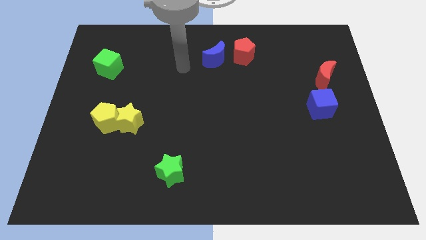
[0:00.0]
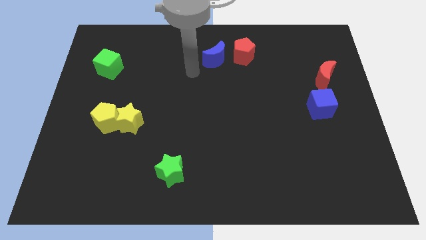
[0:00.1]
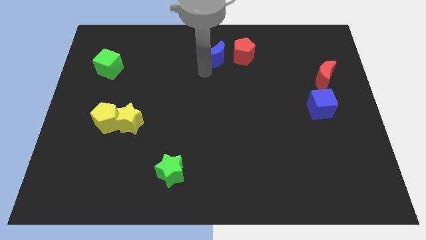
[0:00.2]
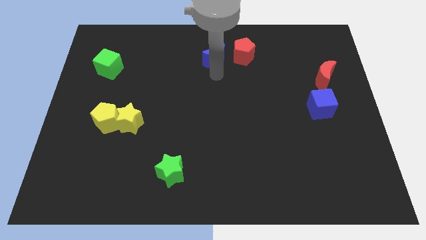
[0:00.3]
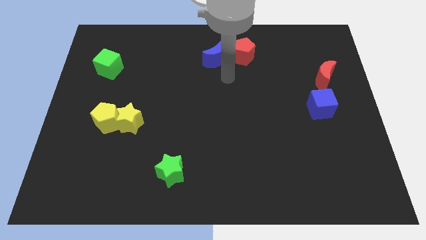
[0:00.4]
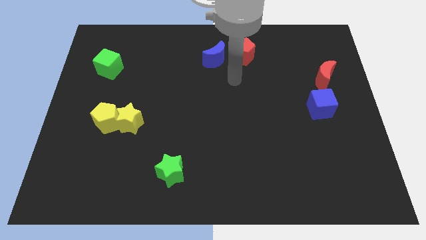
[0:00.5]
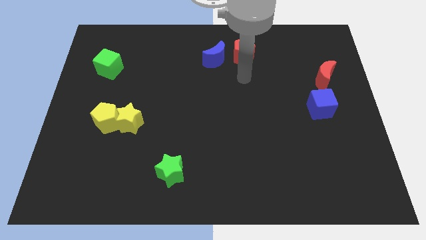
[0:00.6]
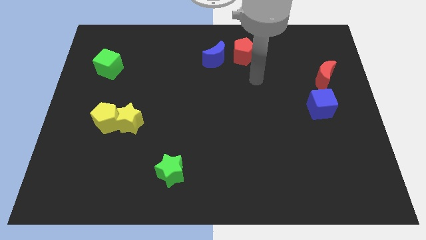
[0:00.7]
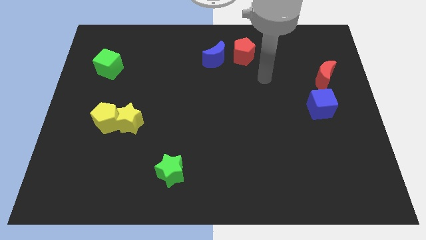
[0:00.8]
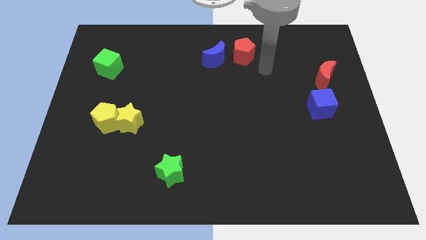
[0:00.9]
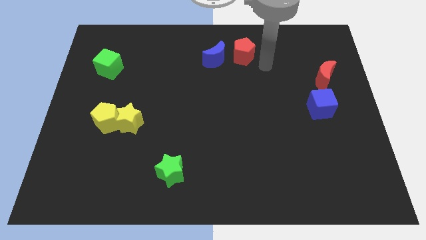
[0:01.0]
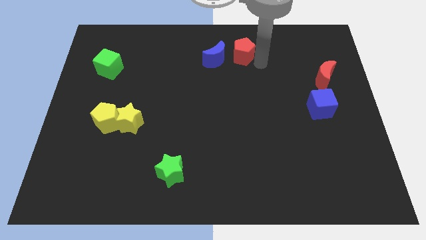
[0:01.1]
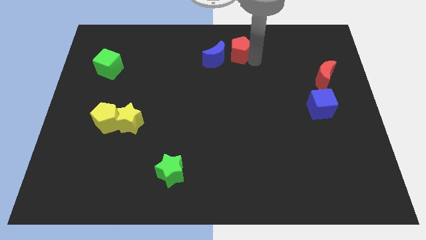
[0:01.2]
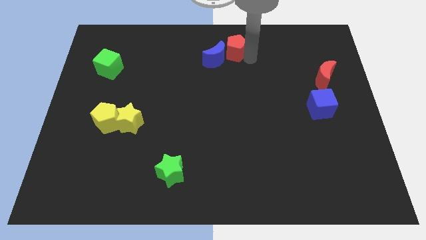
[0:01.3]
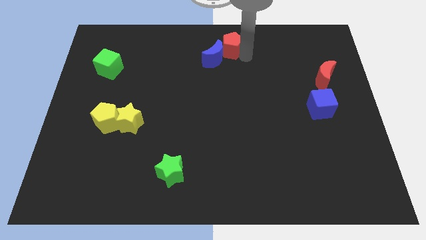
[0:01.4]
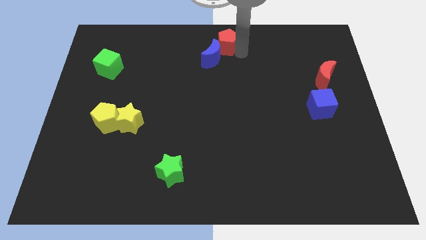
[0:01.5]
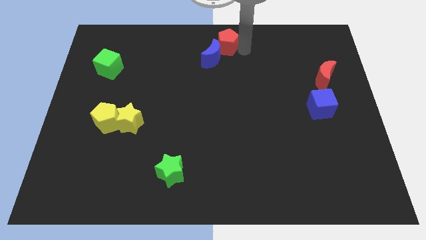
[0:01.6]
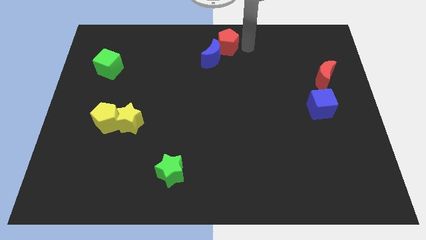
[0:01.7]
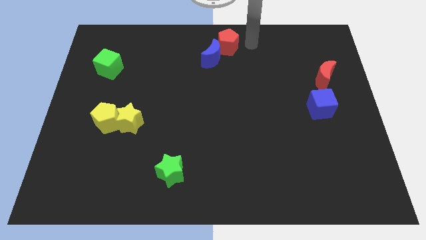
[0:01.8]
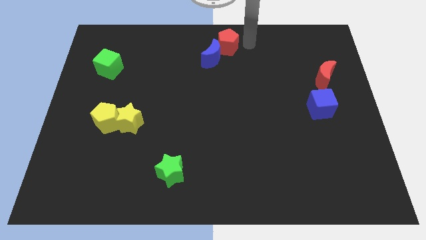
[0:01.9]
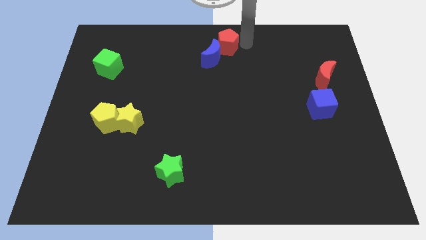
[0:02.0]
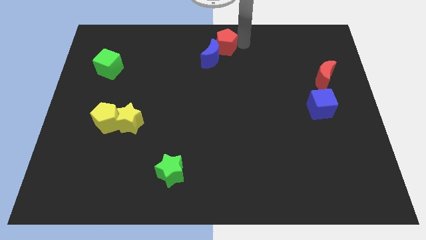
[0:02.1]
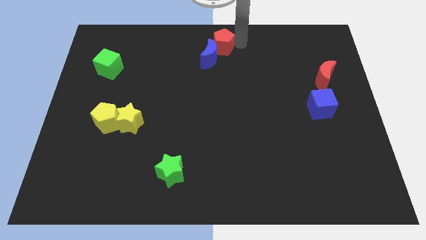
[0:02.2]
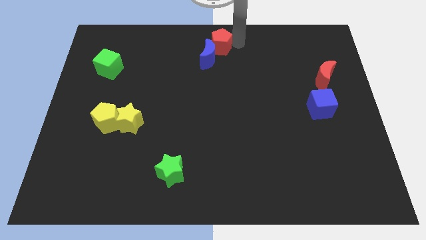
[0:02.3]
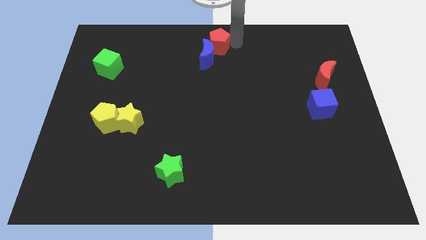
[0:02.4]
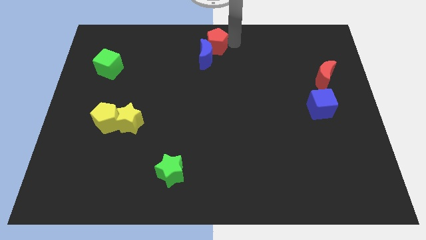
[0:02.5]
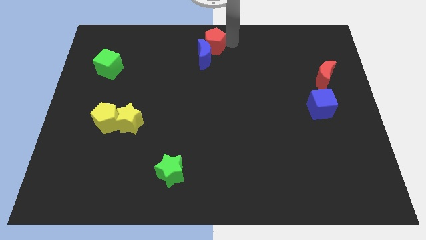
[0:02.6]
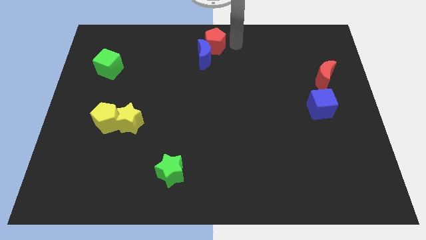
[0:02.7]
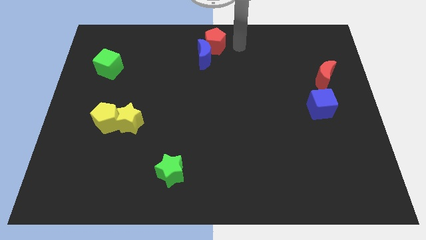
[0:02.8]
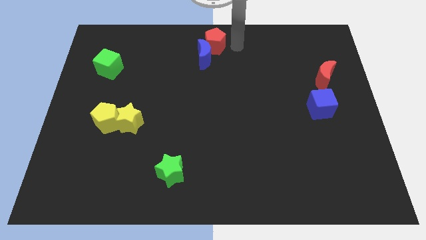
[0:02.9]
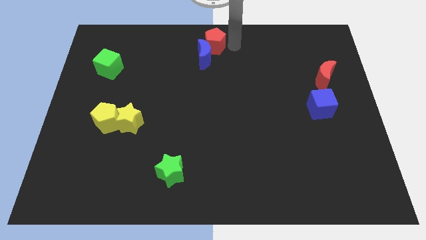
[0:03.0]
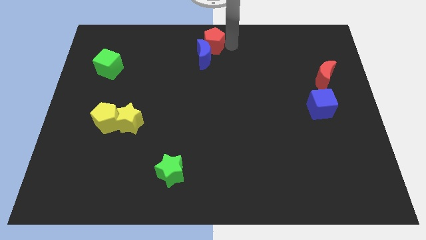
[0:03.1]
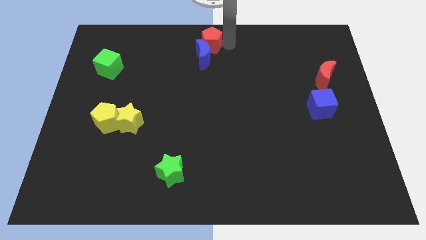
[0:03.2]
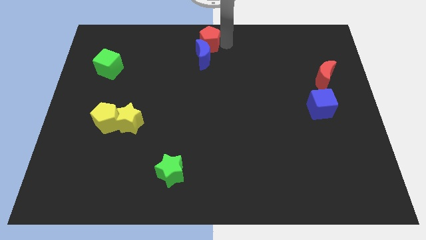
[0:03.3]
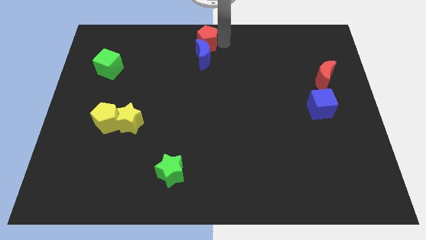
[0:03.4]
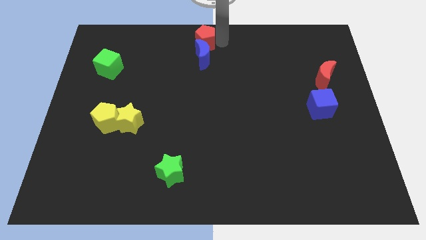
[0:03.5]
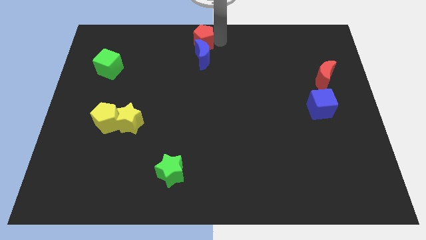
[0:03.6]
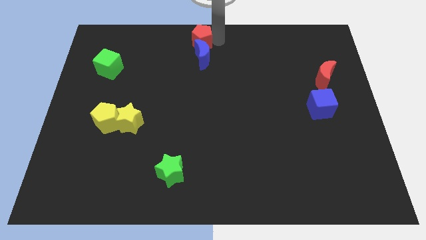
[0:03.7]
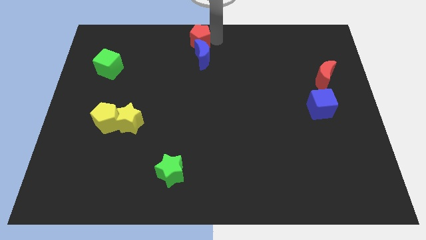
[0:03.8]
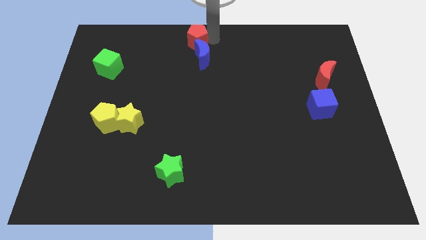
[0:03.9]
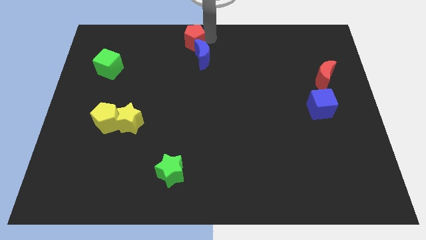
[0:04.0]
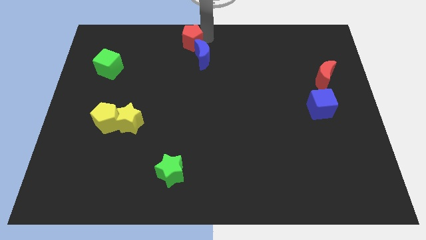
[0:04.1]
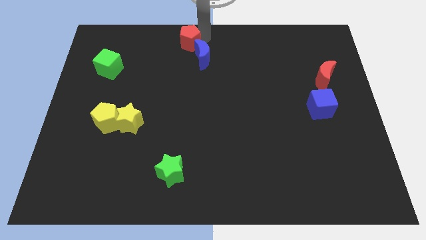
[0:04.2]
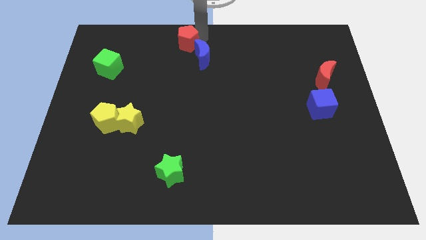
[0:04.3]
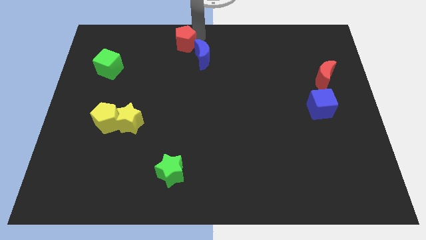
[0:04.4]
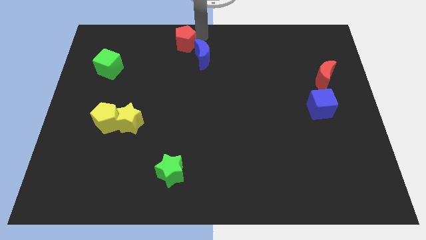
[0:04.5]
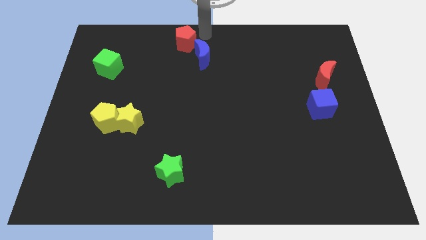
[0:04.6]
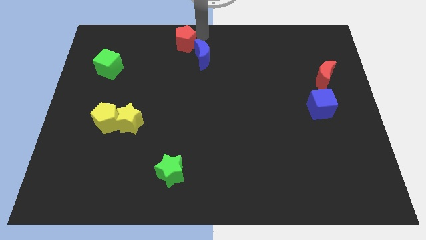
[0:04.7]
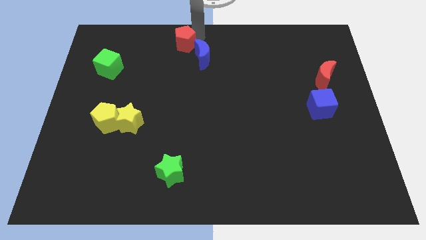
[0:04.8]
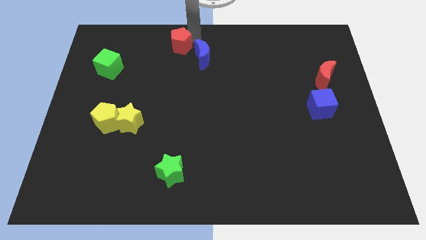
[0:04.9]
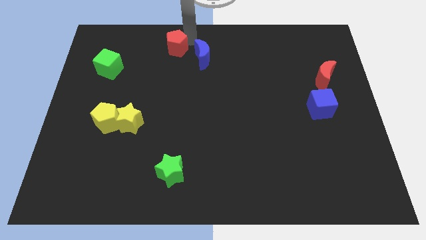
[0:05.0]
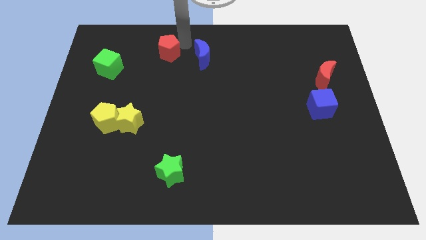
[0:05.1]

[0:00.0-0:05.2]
move the red pentagon left

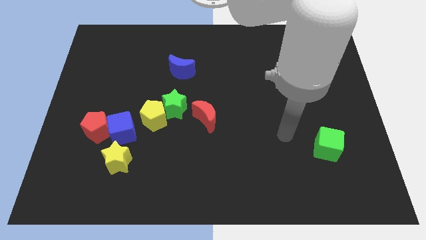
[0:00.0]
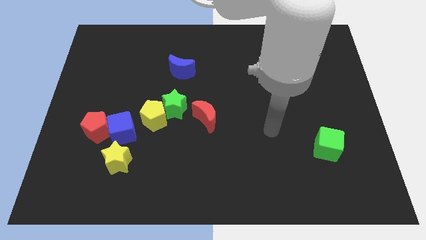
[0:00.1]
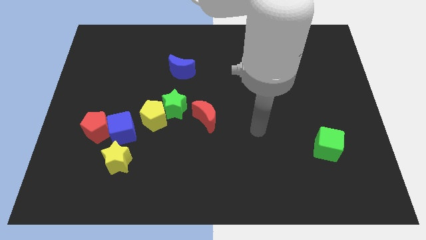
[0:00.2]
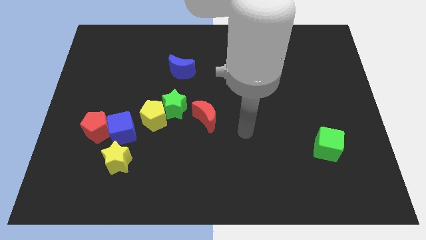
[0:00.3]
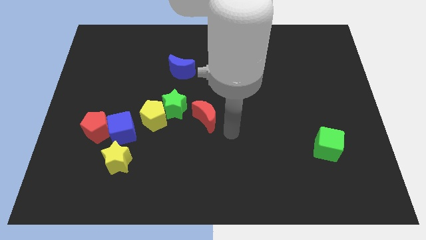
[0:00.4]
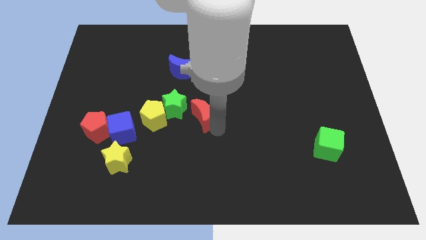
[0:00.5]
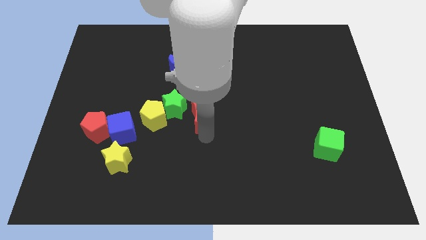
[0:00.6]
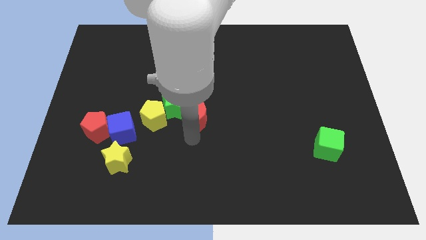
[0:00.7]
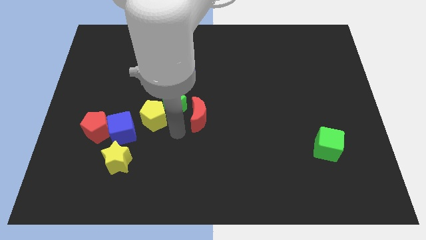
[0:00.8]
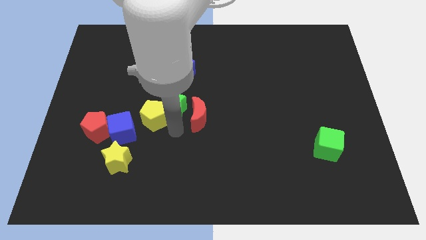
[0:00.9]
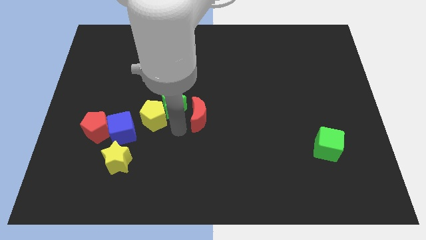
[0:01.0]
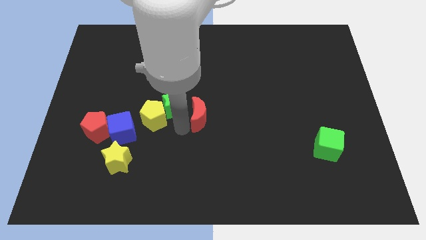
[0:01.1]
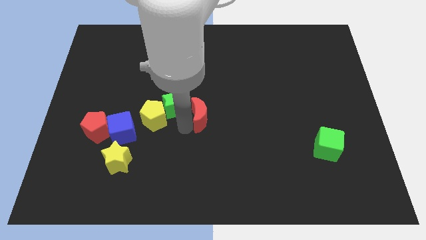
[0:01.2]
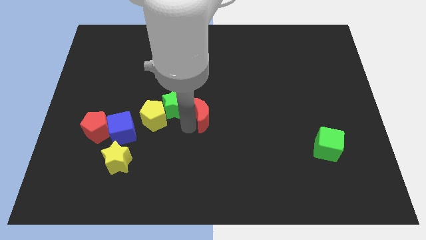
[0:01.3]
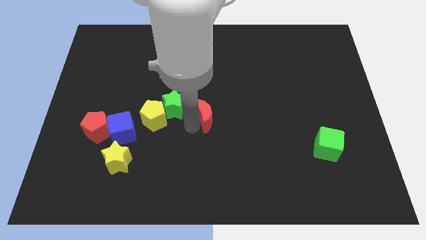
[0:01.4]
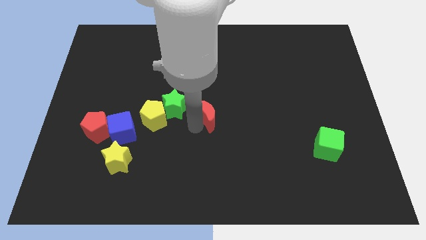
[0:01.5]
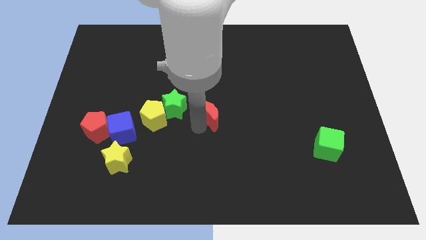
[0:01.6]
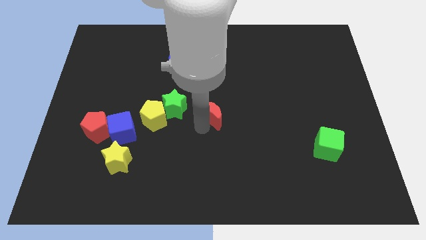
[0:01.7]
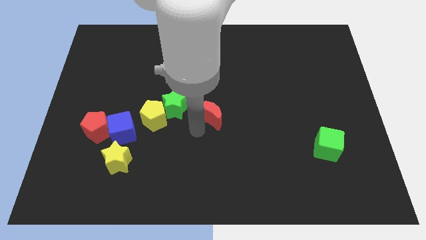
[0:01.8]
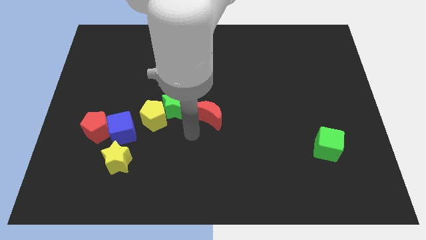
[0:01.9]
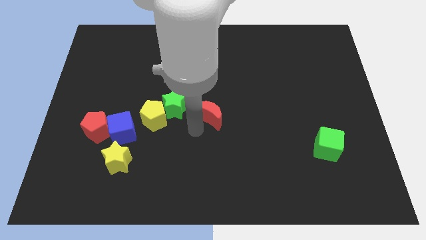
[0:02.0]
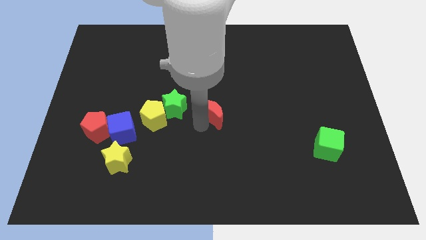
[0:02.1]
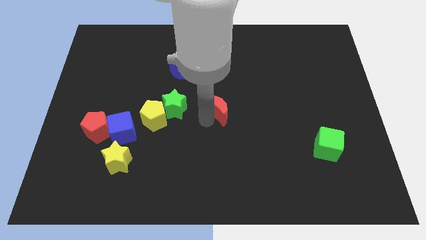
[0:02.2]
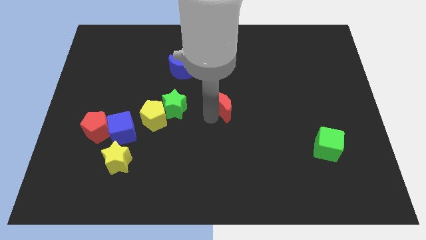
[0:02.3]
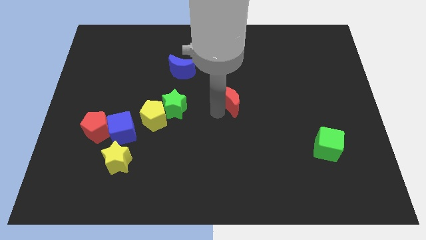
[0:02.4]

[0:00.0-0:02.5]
slide the red moon a bit diagonally up and right

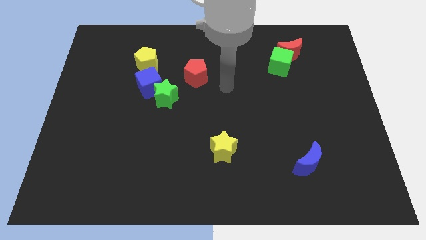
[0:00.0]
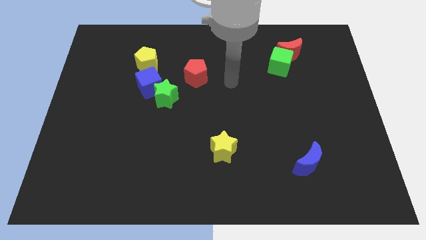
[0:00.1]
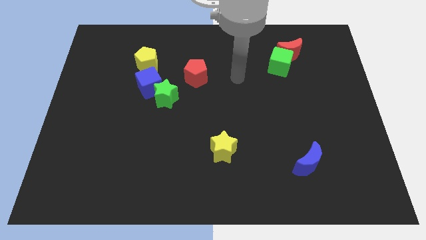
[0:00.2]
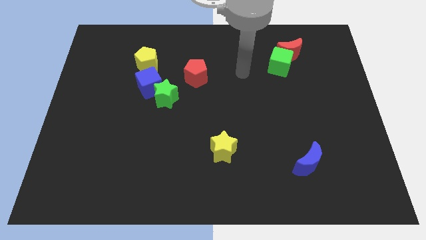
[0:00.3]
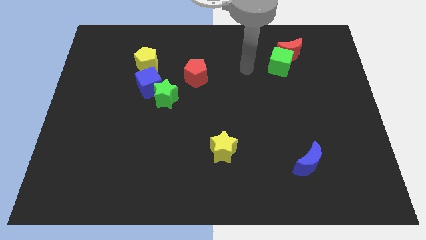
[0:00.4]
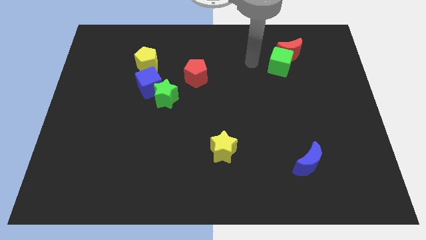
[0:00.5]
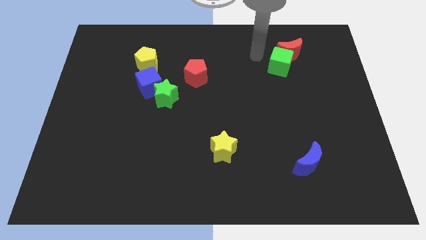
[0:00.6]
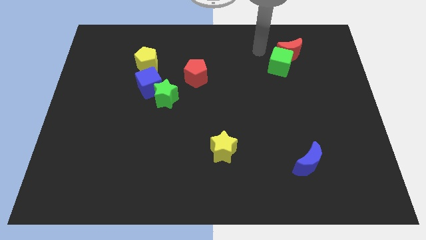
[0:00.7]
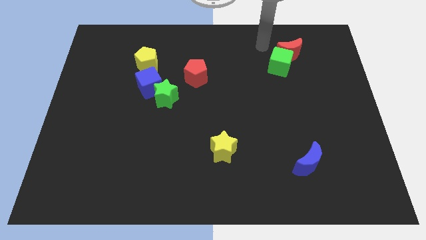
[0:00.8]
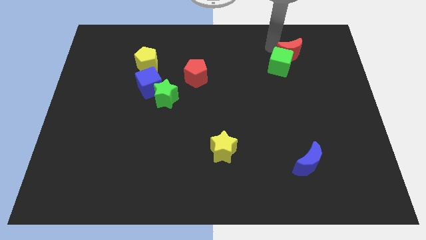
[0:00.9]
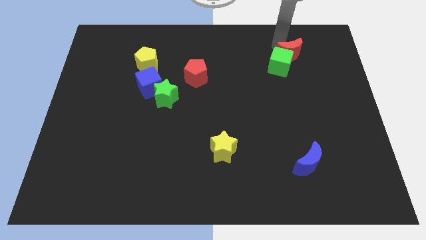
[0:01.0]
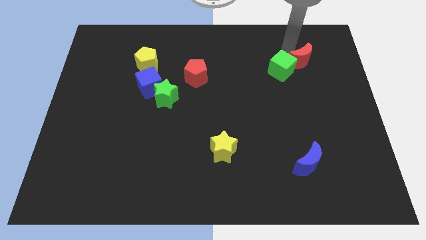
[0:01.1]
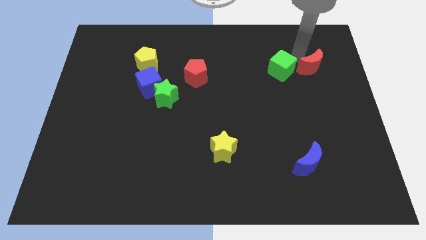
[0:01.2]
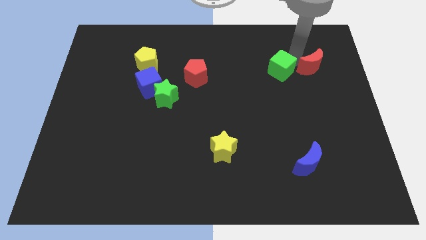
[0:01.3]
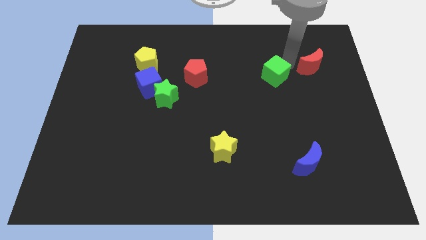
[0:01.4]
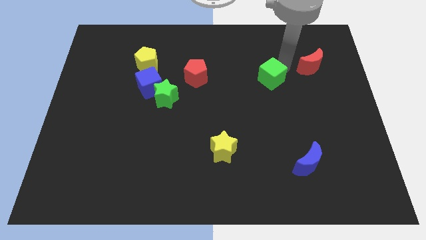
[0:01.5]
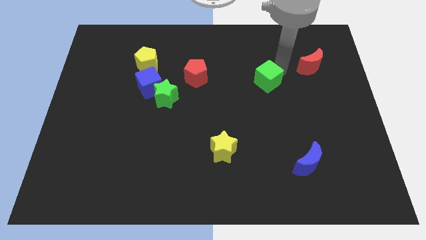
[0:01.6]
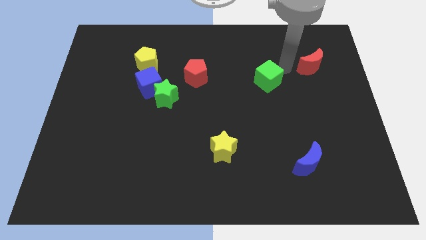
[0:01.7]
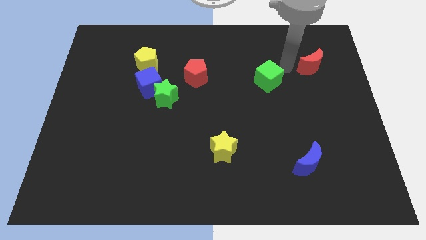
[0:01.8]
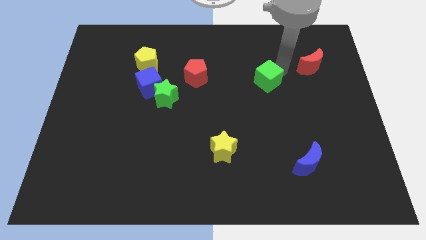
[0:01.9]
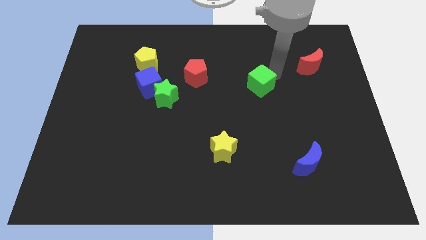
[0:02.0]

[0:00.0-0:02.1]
push the green cube down and left diagonally a little
